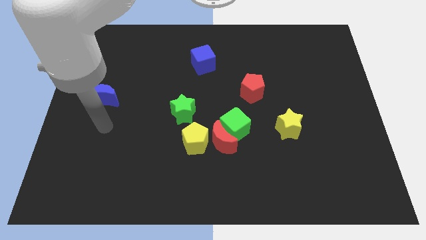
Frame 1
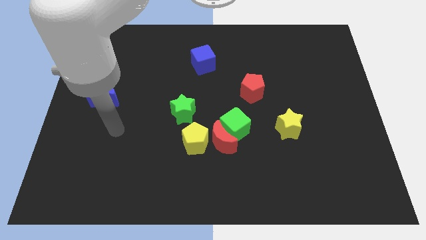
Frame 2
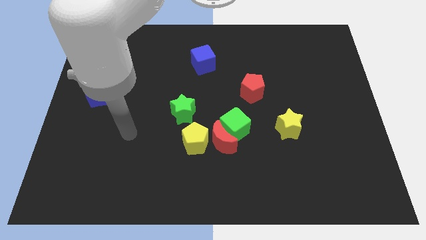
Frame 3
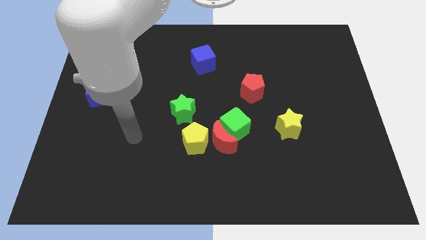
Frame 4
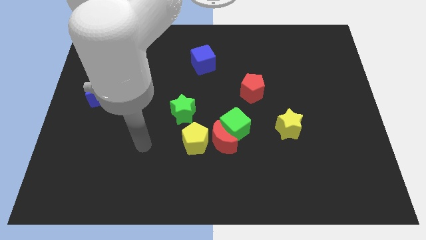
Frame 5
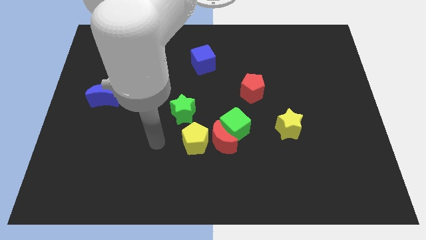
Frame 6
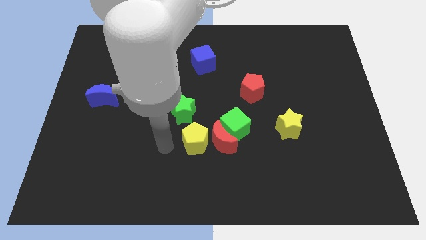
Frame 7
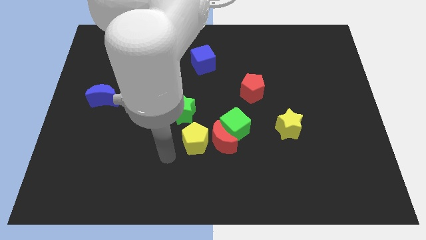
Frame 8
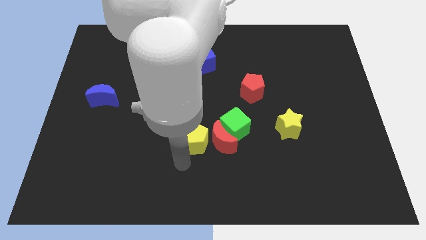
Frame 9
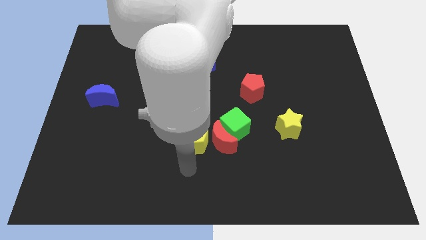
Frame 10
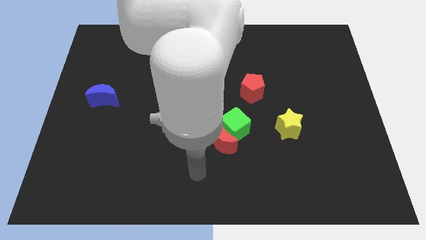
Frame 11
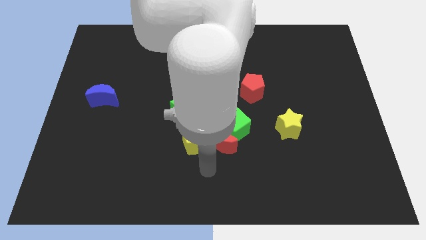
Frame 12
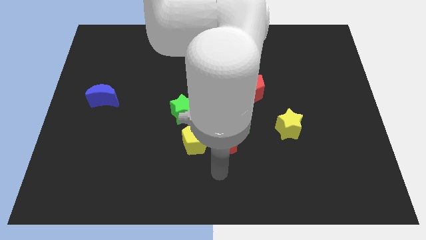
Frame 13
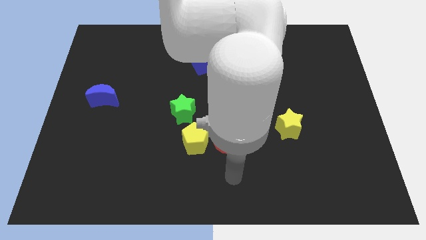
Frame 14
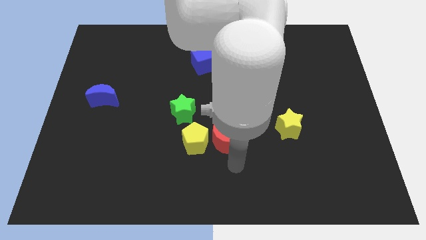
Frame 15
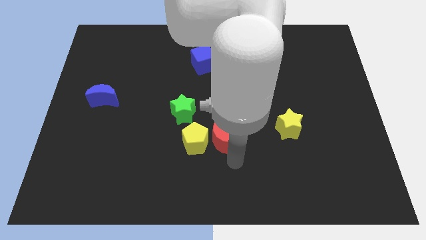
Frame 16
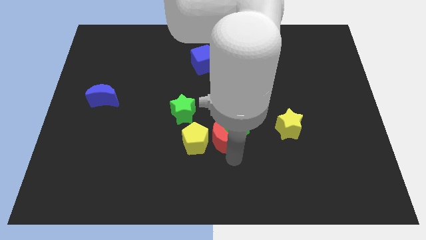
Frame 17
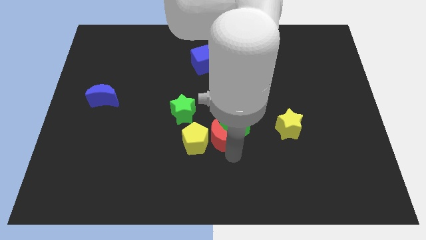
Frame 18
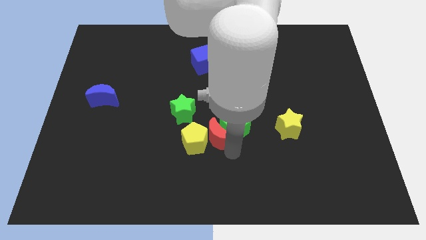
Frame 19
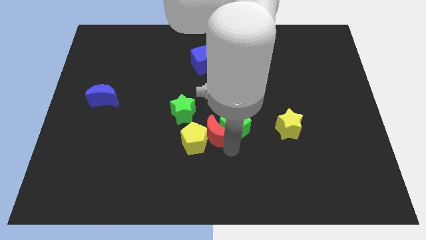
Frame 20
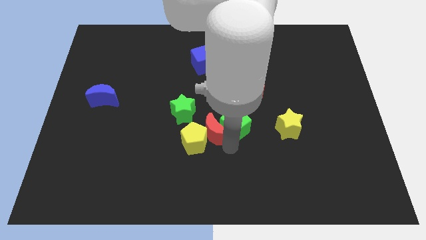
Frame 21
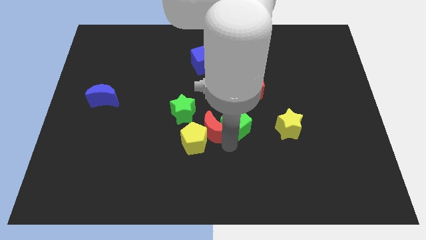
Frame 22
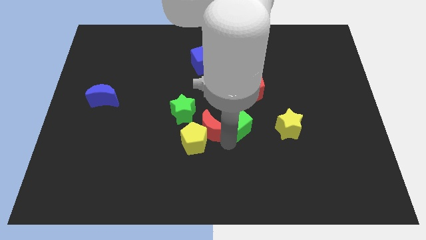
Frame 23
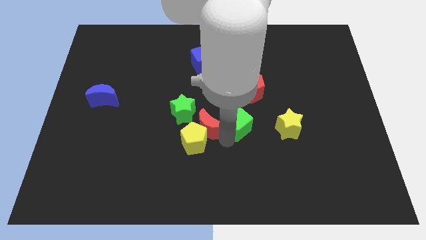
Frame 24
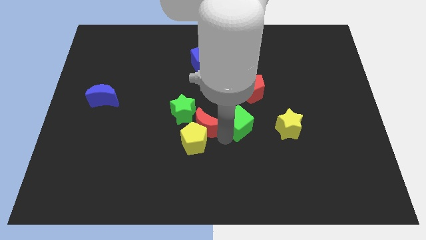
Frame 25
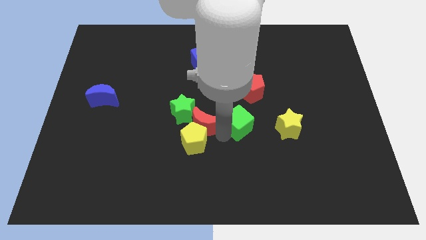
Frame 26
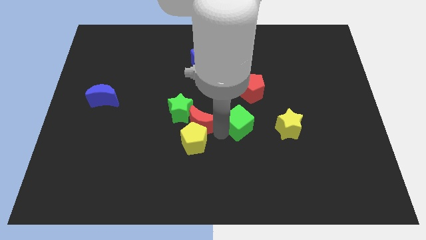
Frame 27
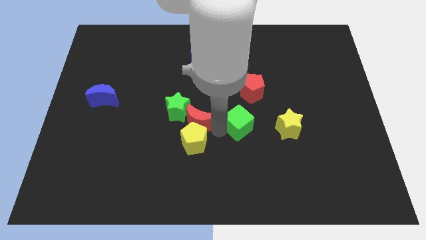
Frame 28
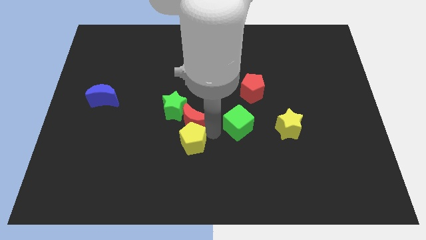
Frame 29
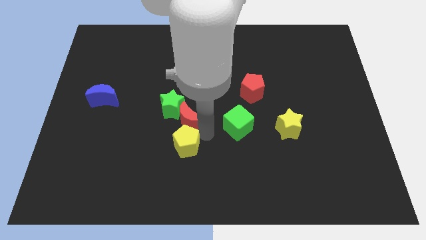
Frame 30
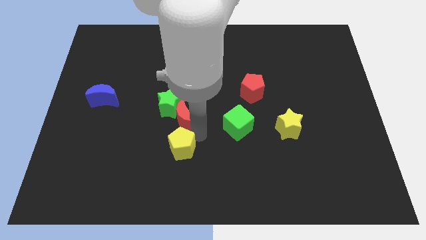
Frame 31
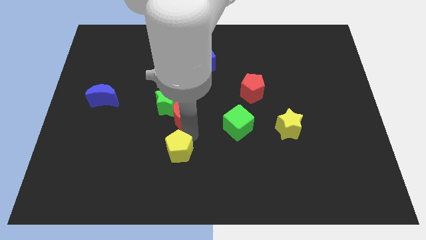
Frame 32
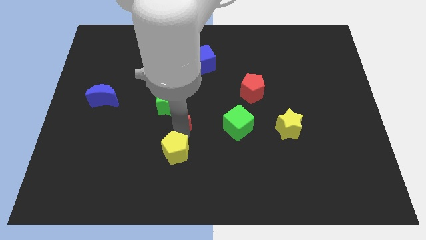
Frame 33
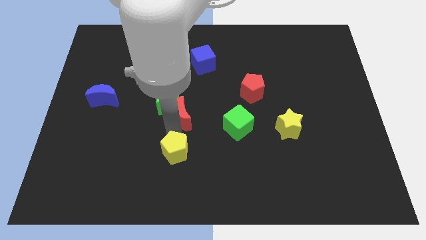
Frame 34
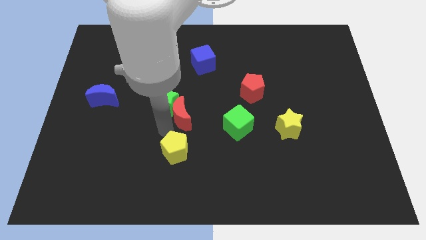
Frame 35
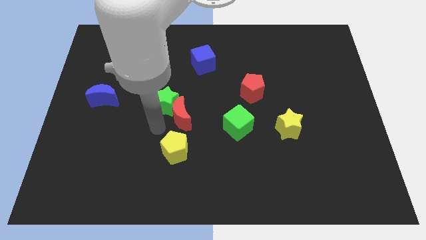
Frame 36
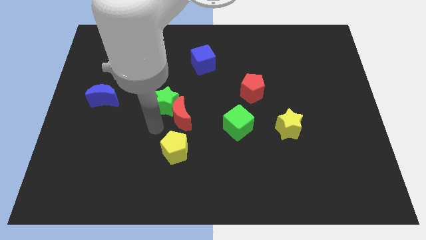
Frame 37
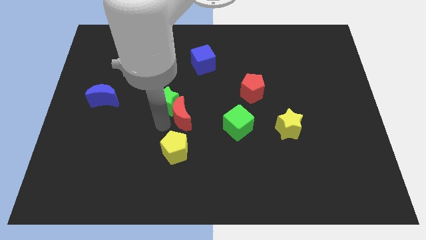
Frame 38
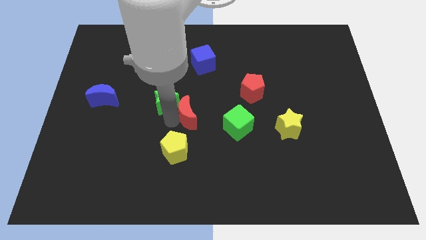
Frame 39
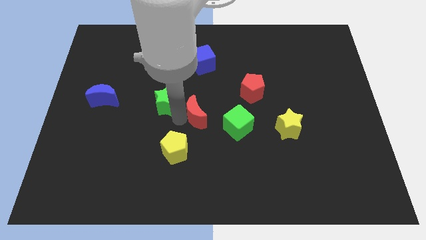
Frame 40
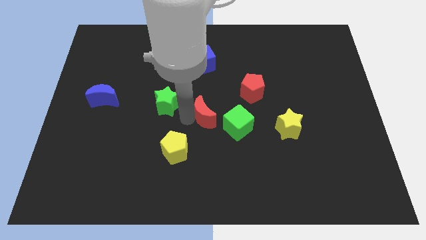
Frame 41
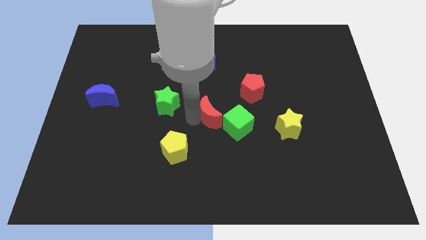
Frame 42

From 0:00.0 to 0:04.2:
slightly move the red moon upwards

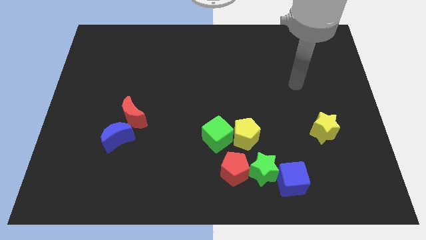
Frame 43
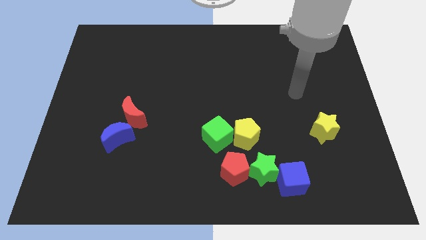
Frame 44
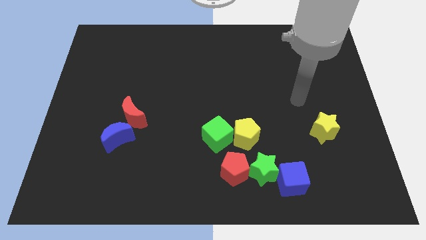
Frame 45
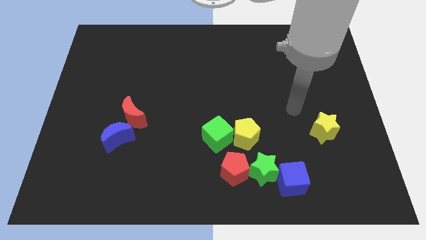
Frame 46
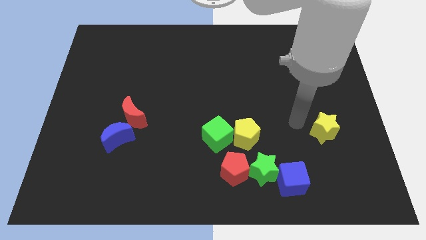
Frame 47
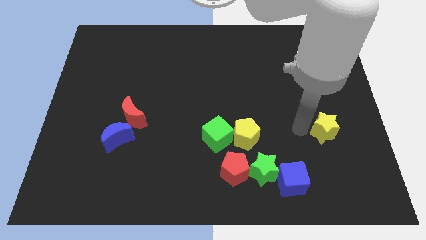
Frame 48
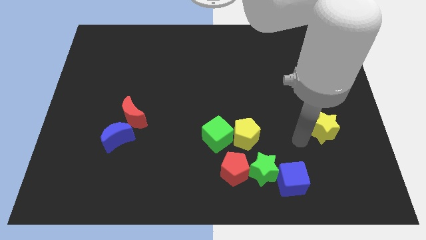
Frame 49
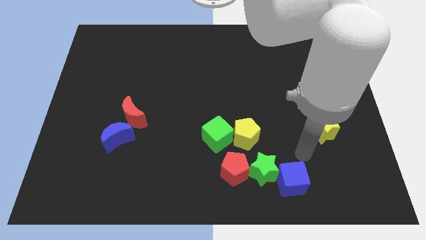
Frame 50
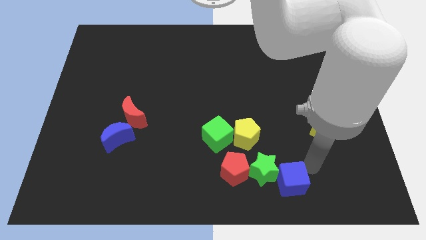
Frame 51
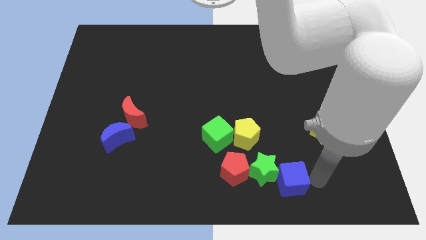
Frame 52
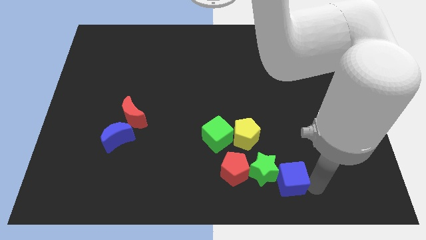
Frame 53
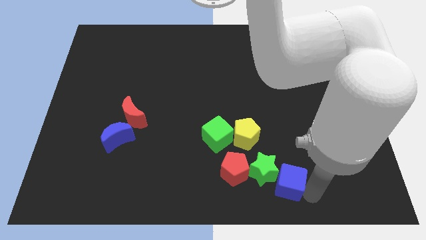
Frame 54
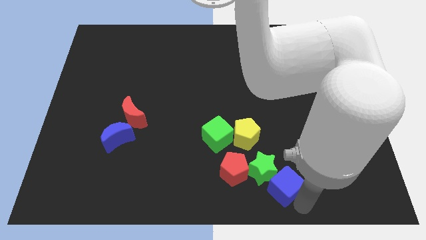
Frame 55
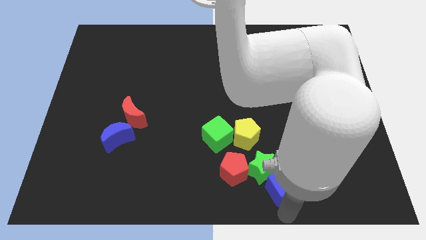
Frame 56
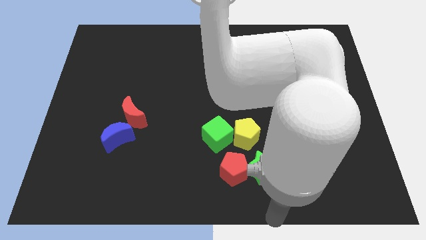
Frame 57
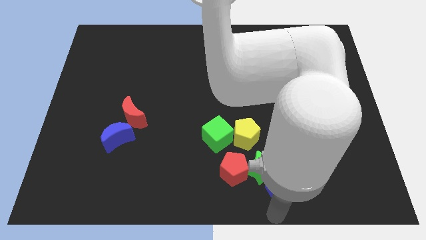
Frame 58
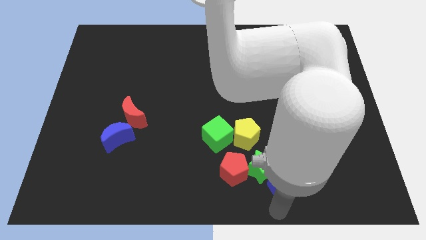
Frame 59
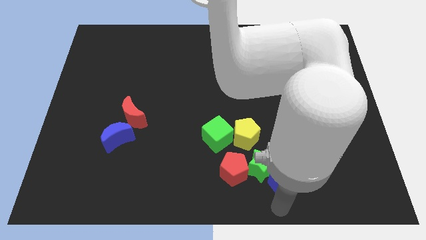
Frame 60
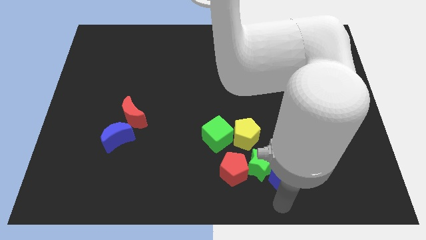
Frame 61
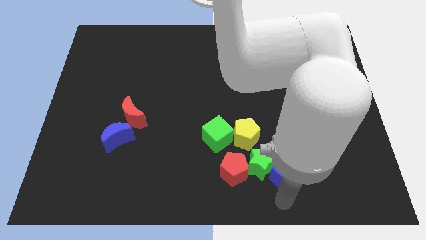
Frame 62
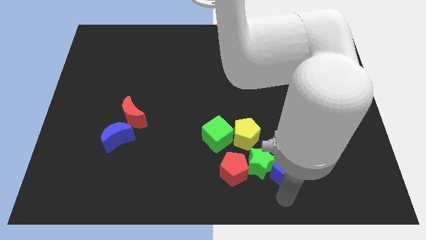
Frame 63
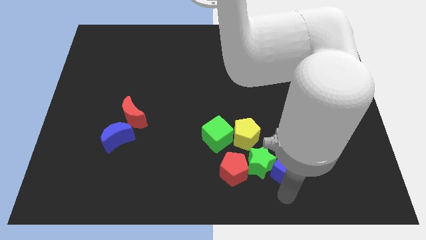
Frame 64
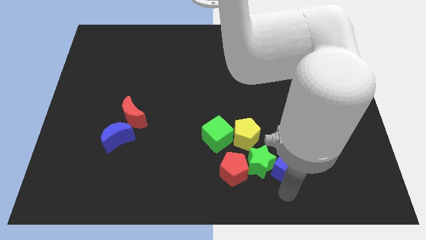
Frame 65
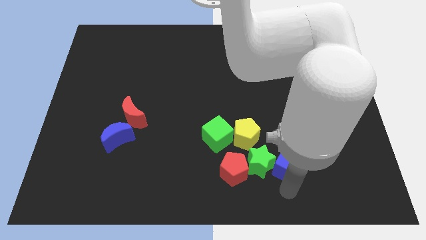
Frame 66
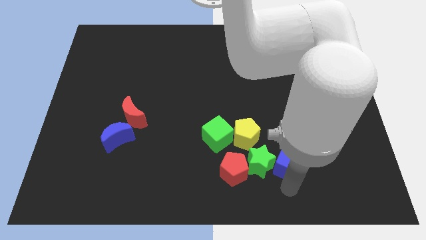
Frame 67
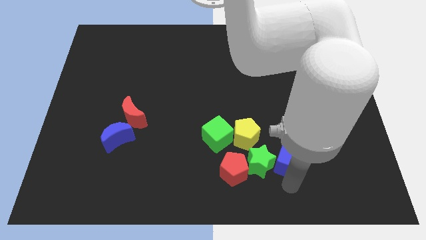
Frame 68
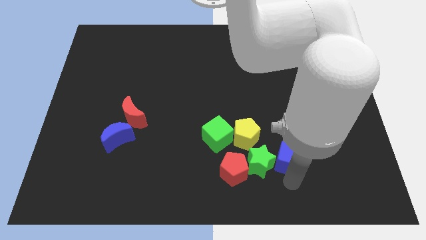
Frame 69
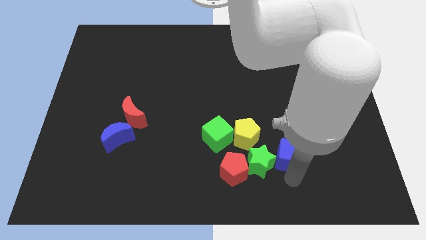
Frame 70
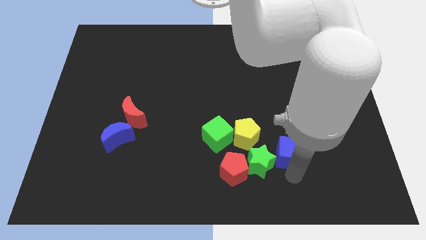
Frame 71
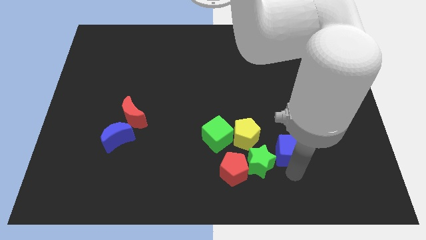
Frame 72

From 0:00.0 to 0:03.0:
move the blue cube slightly upwards

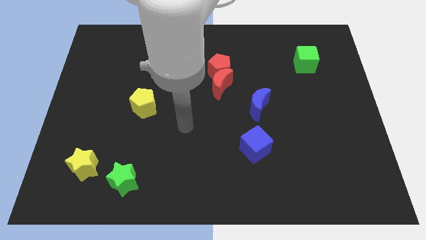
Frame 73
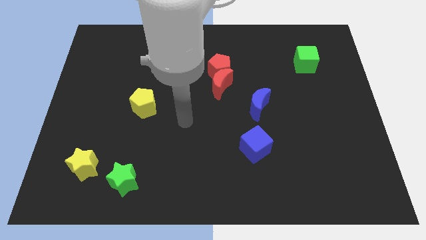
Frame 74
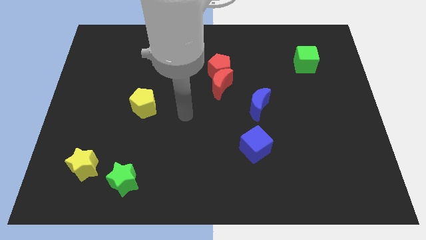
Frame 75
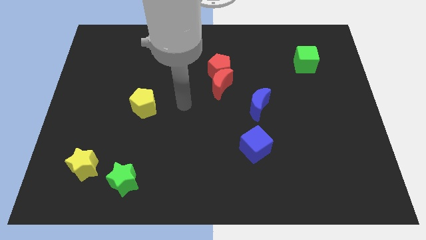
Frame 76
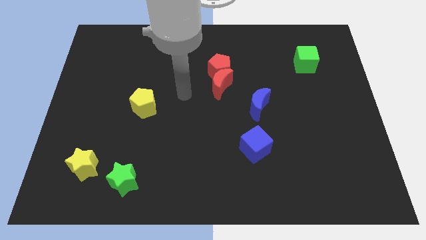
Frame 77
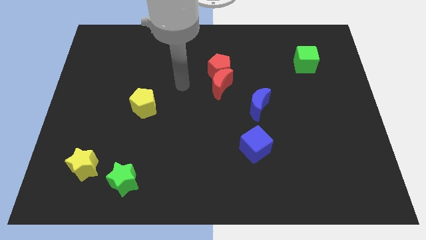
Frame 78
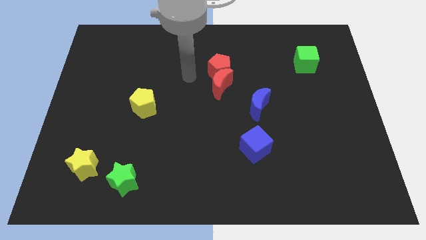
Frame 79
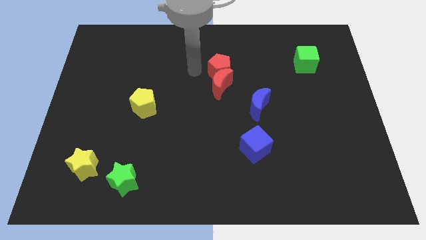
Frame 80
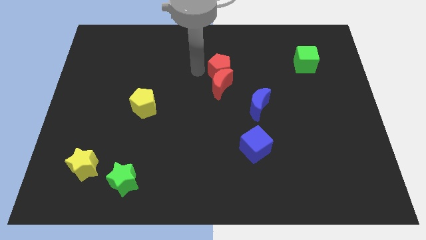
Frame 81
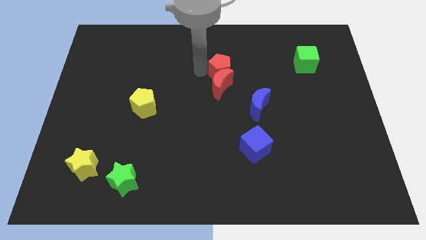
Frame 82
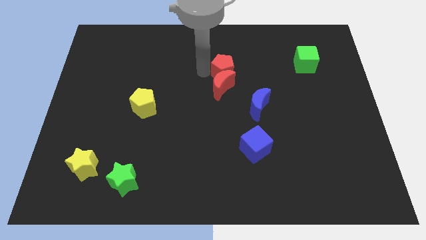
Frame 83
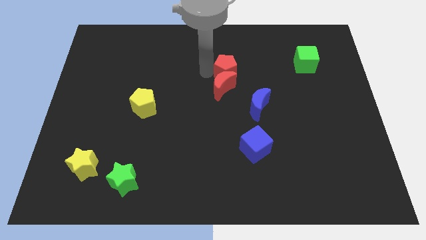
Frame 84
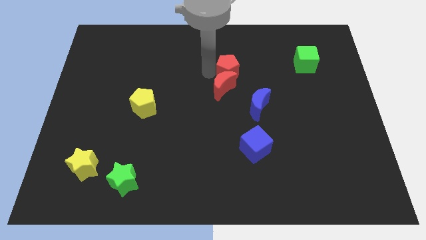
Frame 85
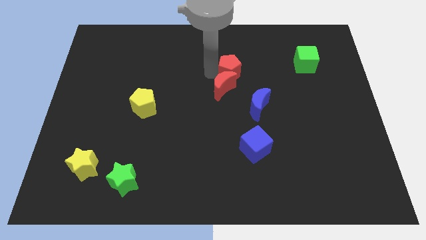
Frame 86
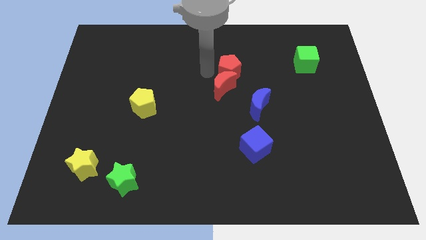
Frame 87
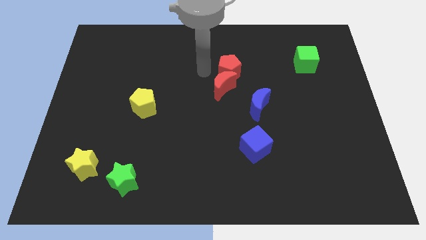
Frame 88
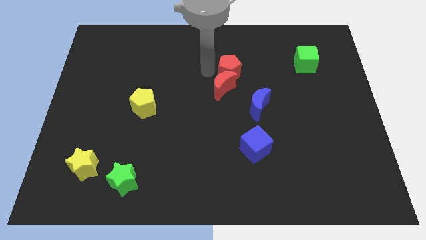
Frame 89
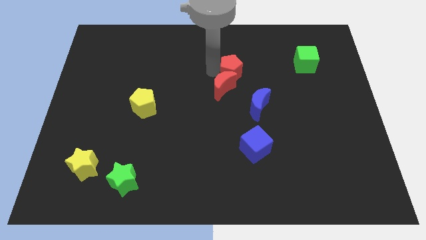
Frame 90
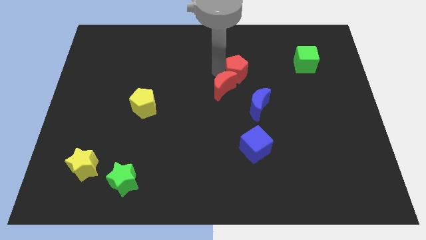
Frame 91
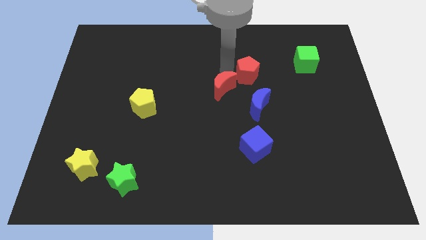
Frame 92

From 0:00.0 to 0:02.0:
slightly move the red pentagon to the right
